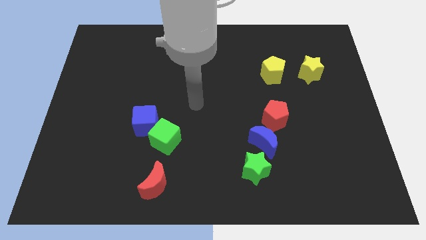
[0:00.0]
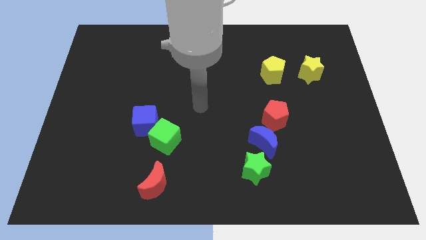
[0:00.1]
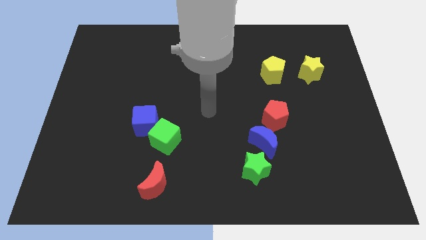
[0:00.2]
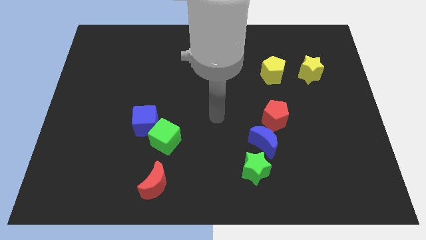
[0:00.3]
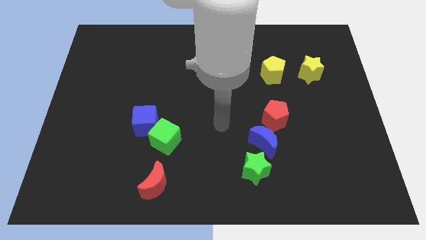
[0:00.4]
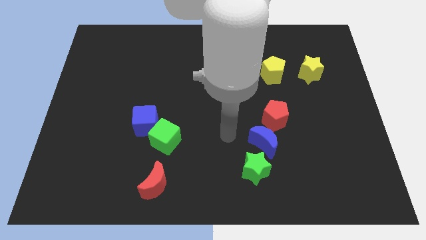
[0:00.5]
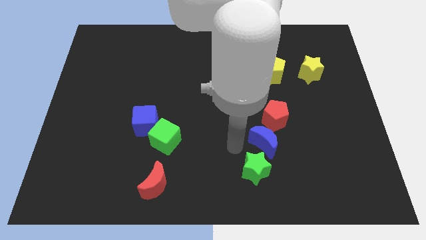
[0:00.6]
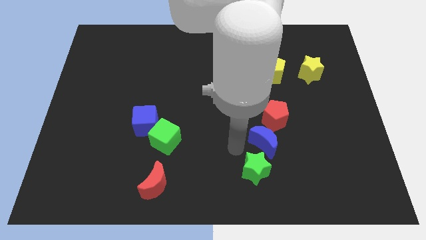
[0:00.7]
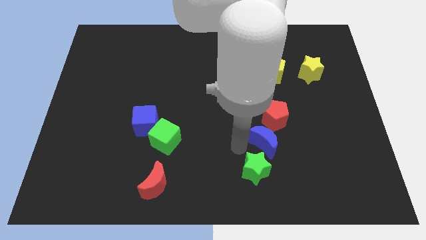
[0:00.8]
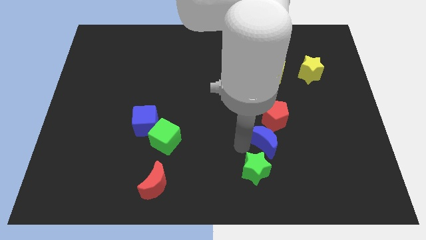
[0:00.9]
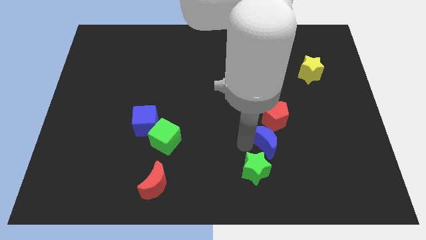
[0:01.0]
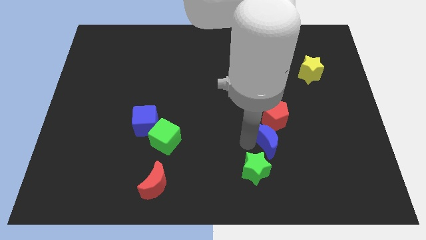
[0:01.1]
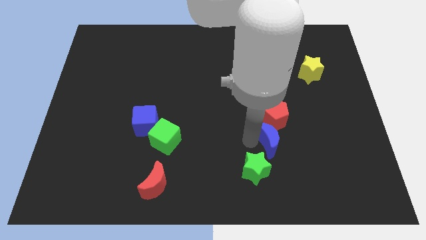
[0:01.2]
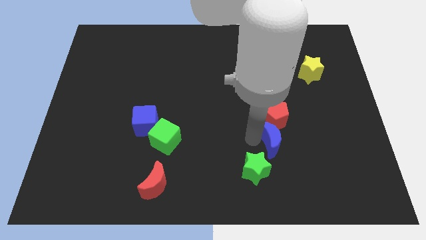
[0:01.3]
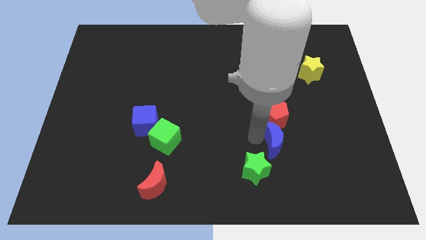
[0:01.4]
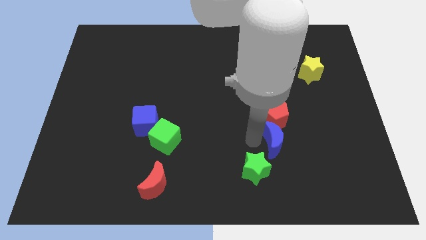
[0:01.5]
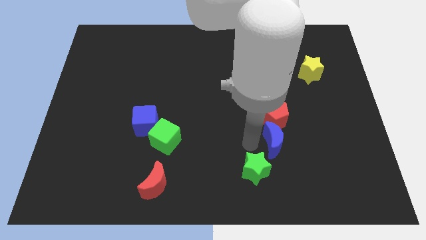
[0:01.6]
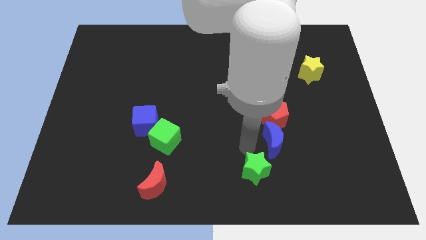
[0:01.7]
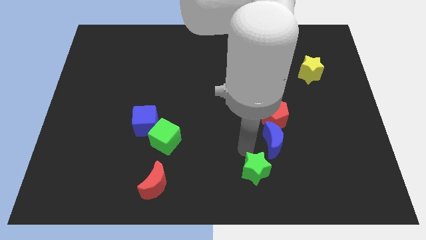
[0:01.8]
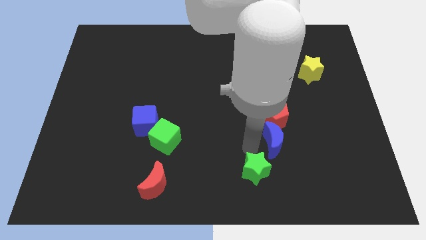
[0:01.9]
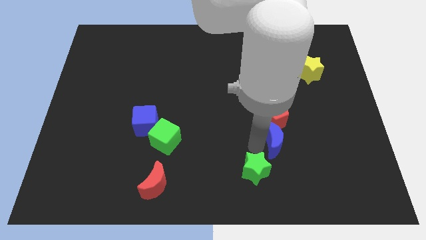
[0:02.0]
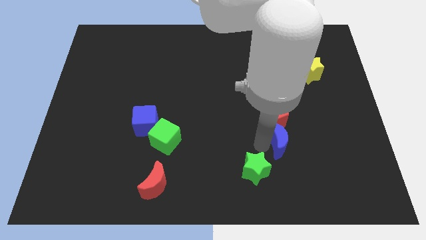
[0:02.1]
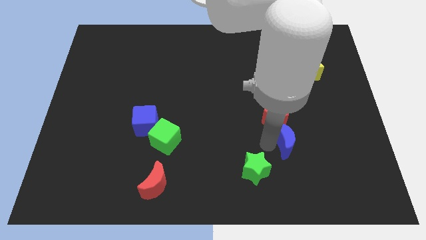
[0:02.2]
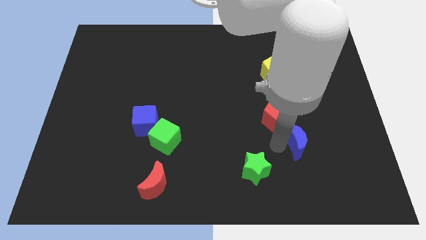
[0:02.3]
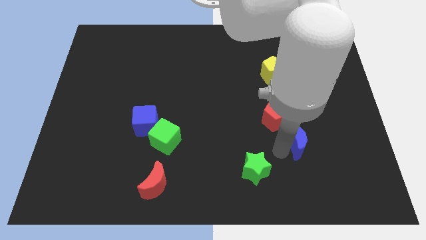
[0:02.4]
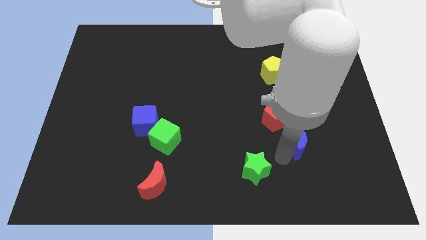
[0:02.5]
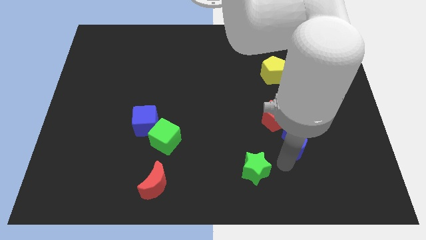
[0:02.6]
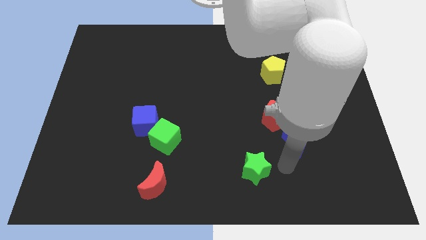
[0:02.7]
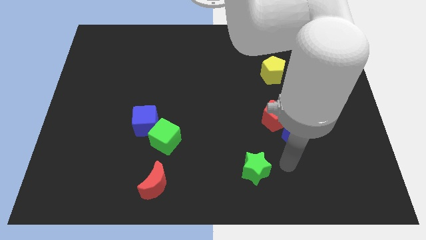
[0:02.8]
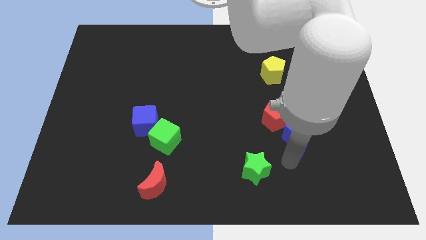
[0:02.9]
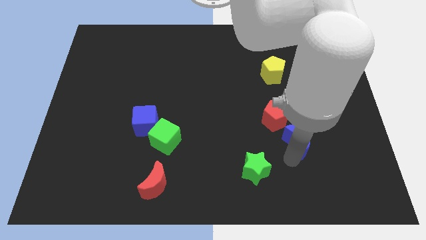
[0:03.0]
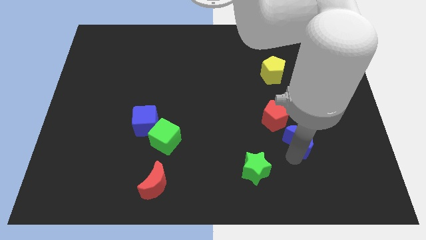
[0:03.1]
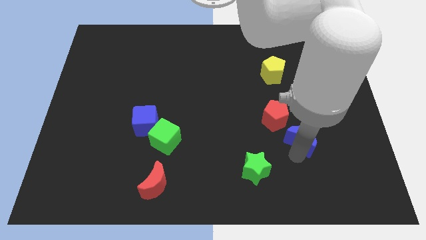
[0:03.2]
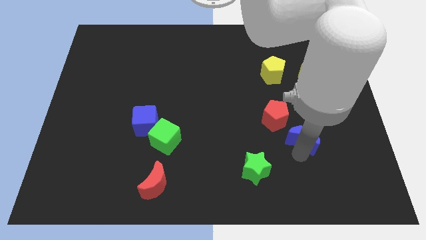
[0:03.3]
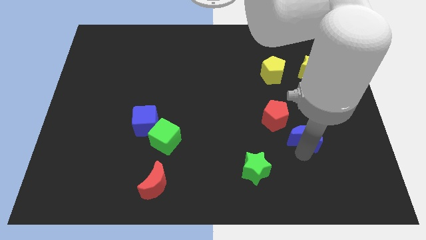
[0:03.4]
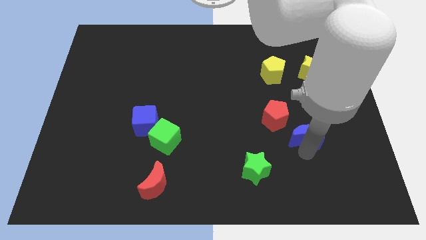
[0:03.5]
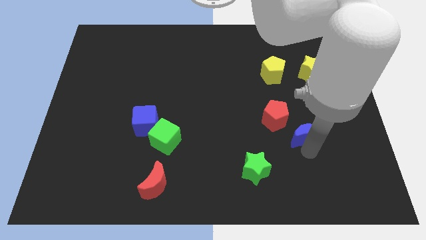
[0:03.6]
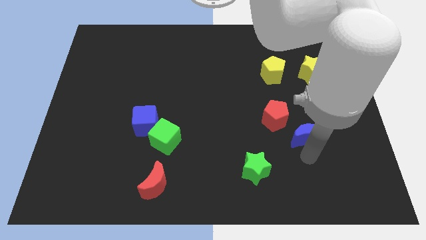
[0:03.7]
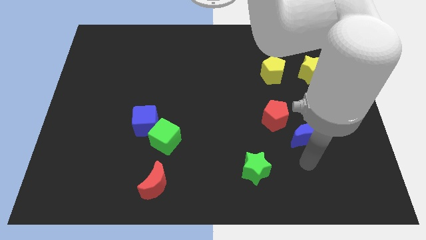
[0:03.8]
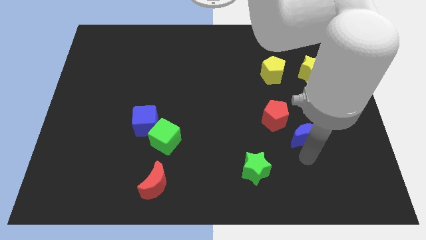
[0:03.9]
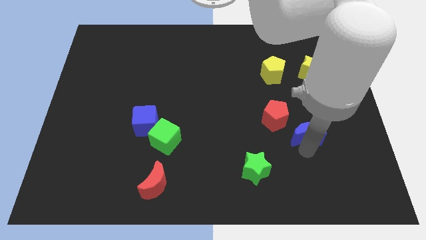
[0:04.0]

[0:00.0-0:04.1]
push the blue moon a little bit up and right

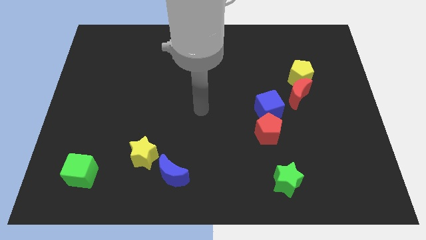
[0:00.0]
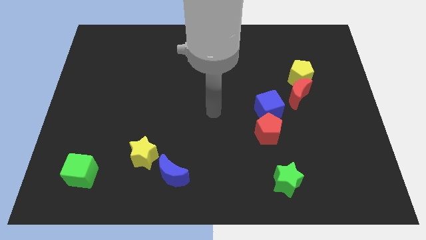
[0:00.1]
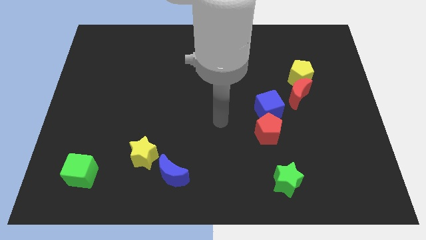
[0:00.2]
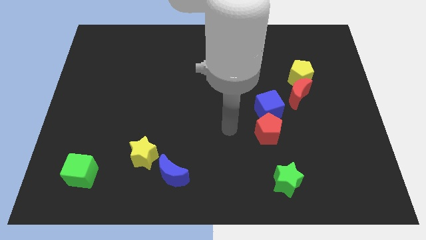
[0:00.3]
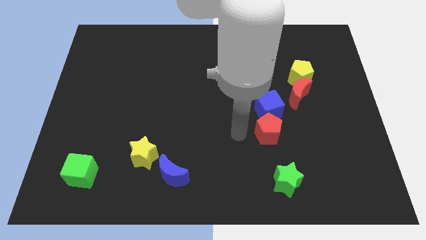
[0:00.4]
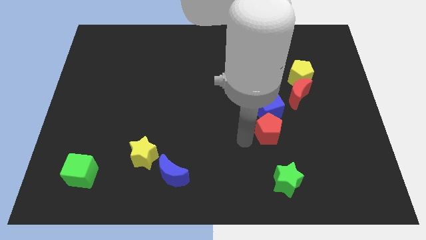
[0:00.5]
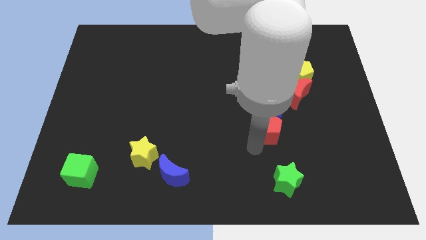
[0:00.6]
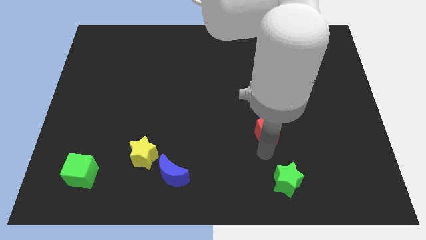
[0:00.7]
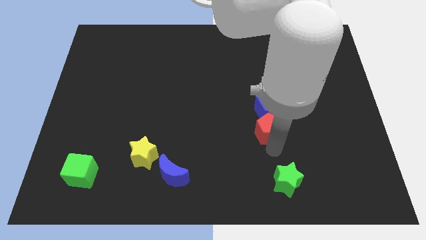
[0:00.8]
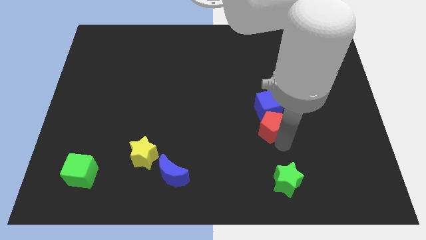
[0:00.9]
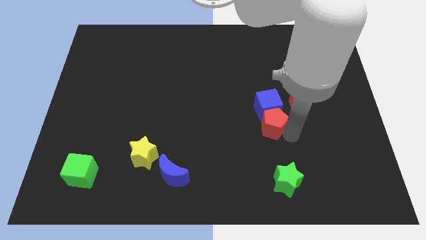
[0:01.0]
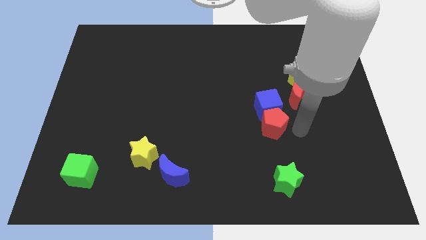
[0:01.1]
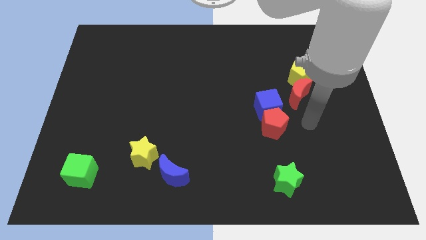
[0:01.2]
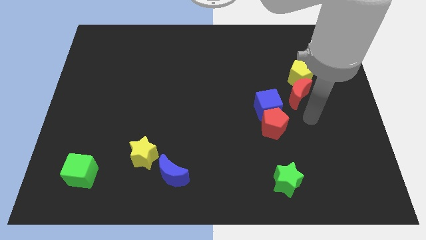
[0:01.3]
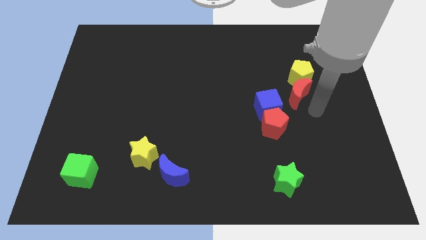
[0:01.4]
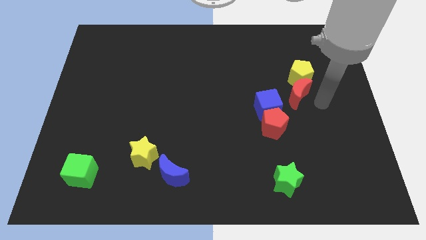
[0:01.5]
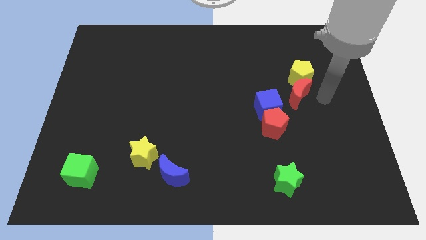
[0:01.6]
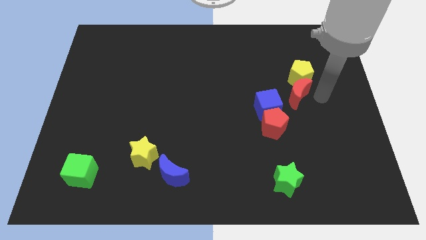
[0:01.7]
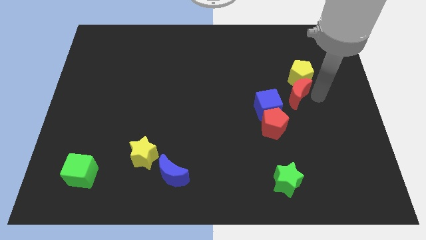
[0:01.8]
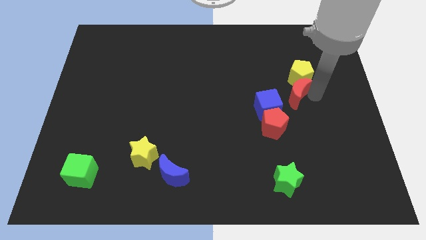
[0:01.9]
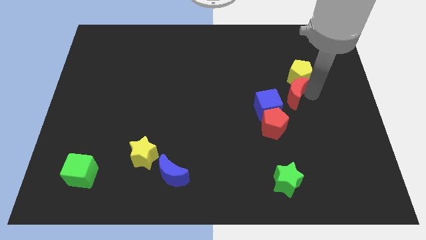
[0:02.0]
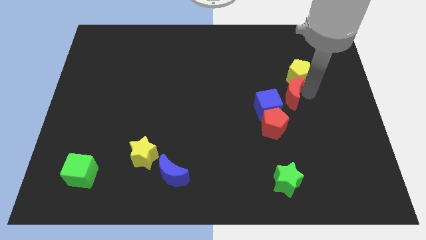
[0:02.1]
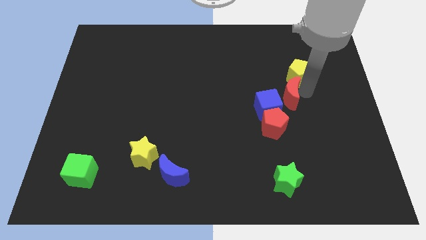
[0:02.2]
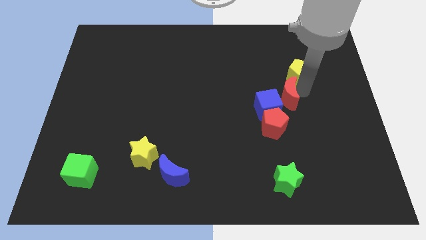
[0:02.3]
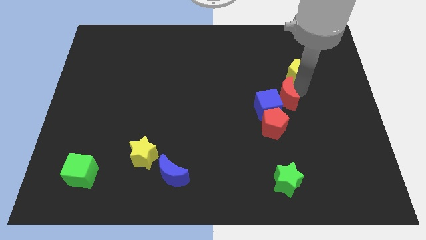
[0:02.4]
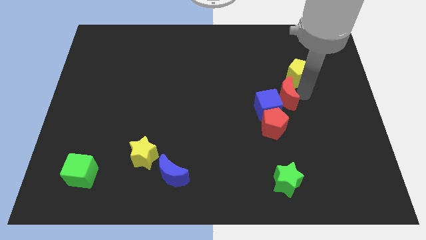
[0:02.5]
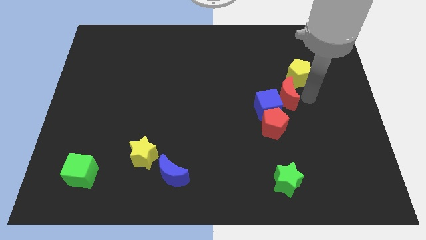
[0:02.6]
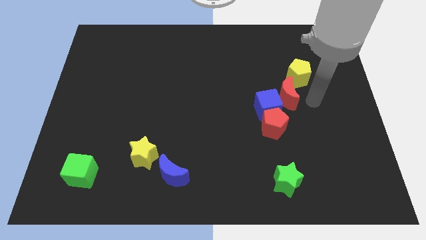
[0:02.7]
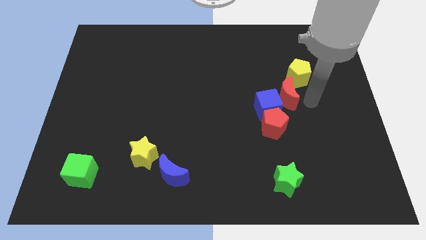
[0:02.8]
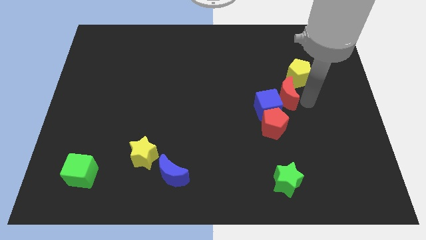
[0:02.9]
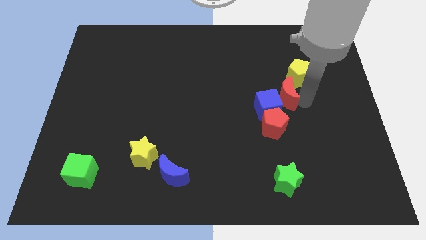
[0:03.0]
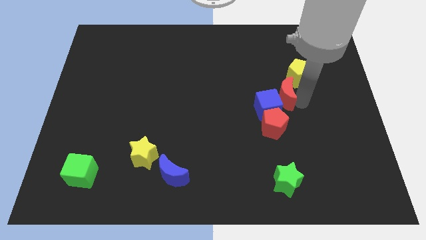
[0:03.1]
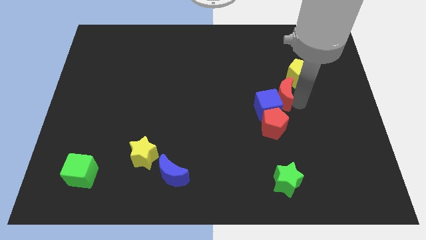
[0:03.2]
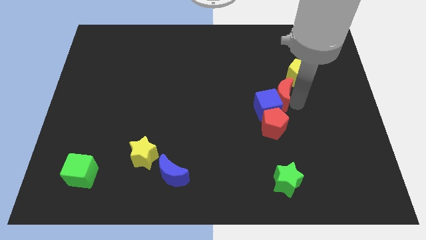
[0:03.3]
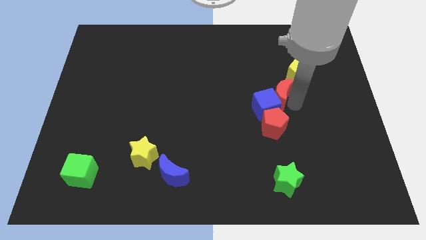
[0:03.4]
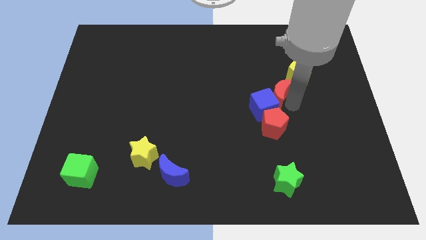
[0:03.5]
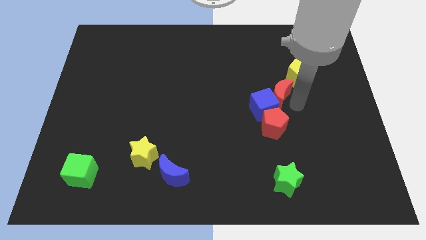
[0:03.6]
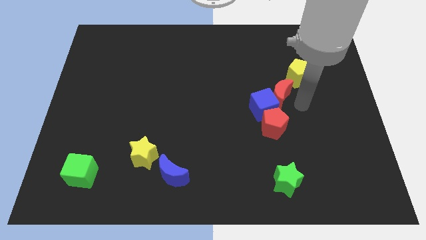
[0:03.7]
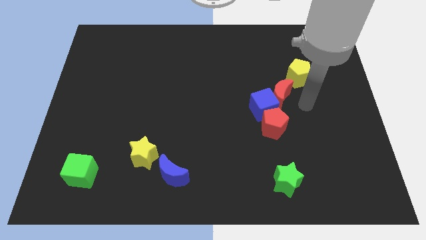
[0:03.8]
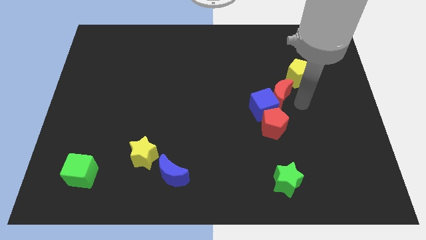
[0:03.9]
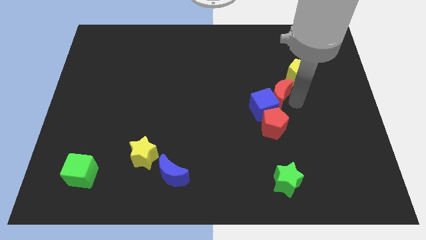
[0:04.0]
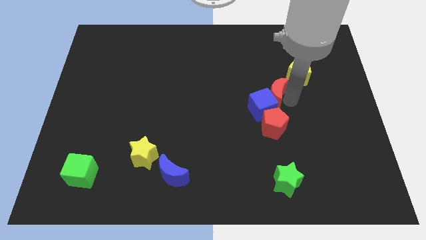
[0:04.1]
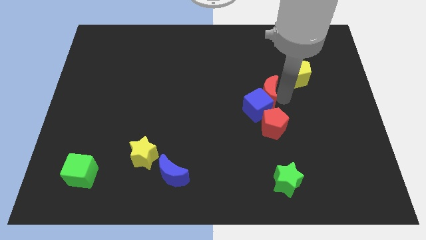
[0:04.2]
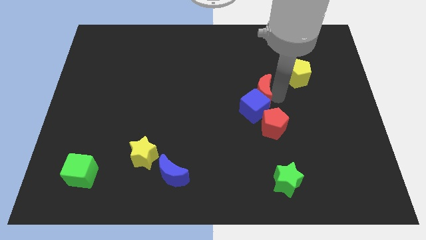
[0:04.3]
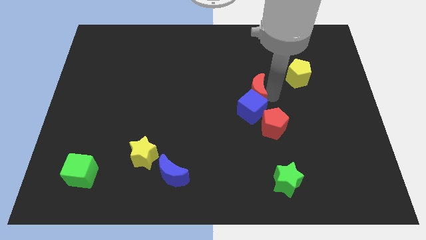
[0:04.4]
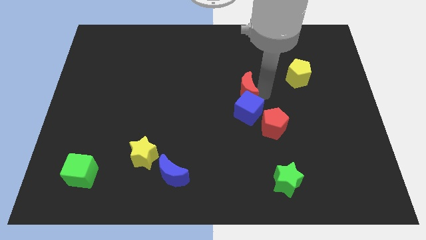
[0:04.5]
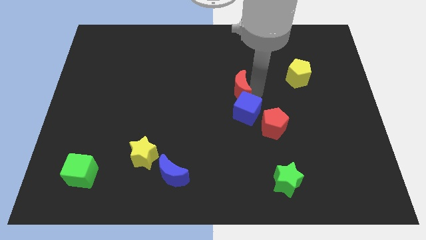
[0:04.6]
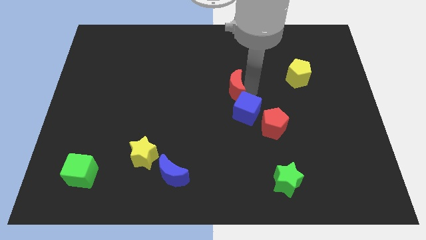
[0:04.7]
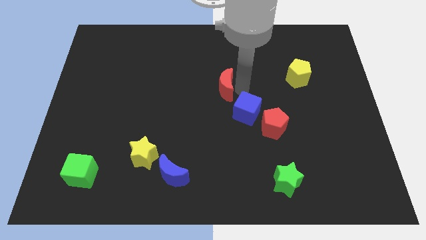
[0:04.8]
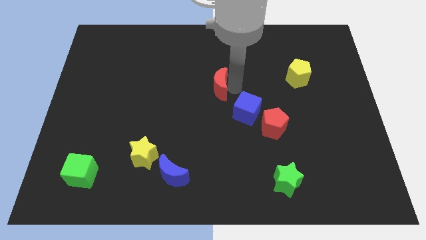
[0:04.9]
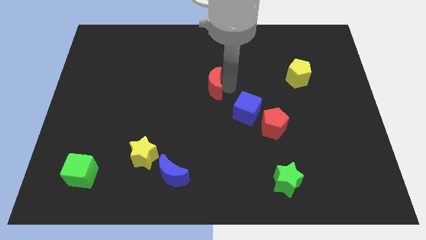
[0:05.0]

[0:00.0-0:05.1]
push the red moon left
